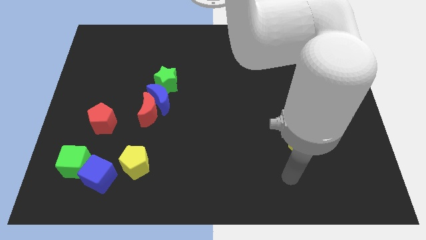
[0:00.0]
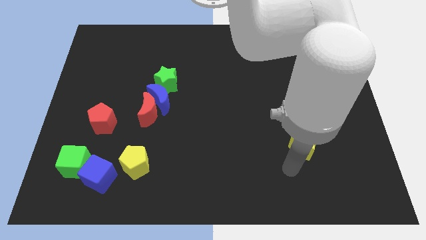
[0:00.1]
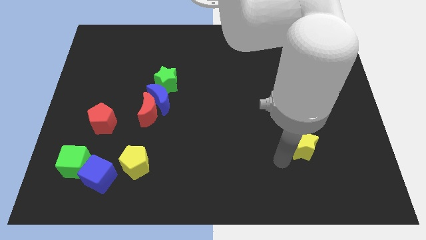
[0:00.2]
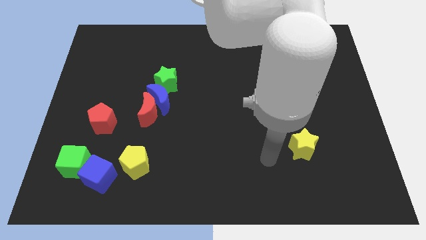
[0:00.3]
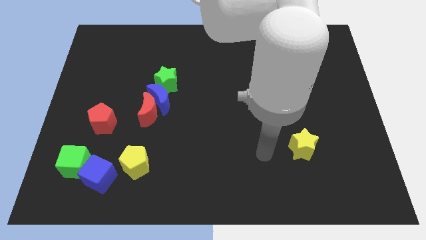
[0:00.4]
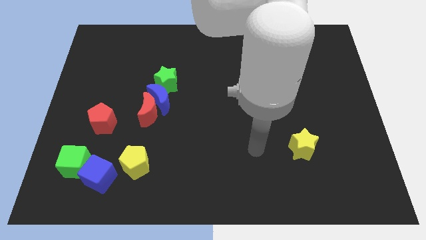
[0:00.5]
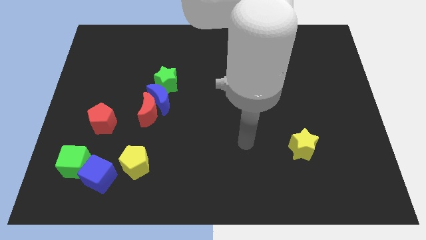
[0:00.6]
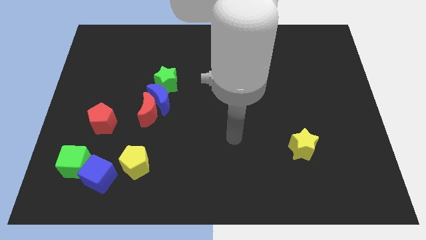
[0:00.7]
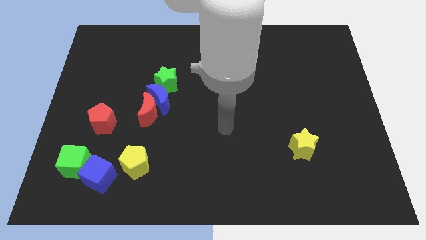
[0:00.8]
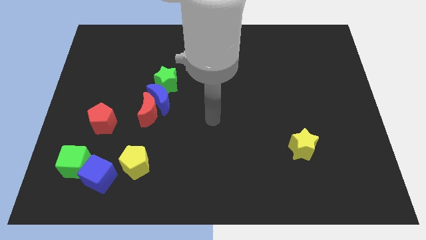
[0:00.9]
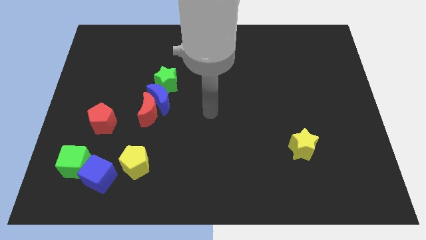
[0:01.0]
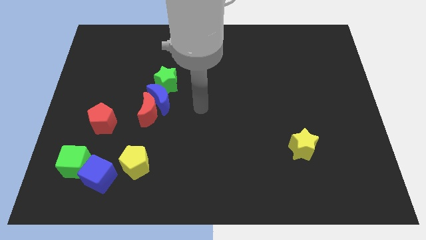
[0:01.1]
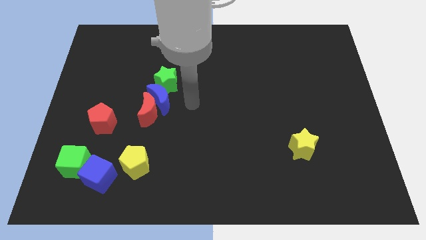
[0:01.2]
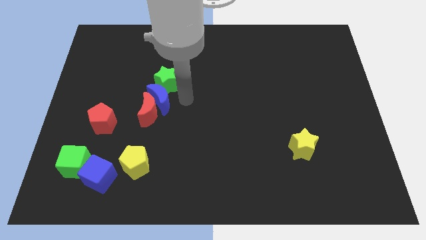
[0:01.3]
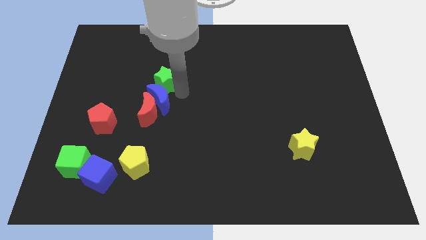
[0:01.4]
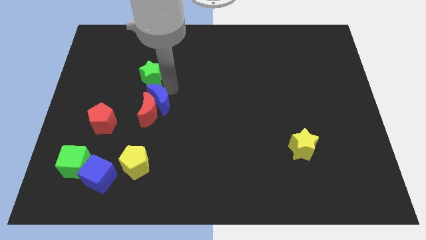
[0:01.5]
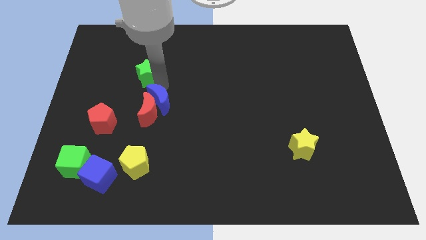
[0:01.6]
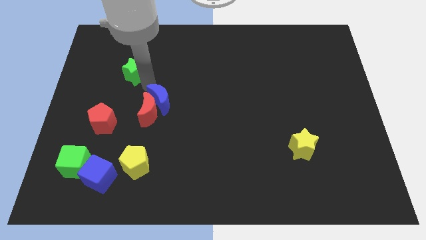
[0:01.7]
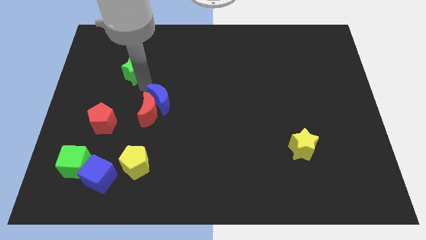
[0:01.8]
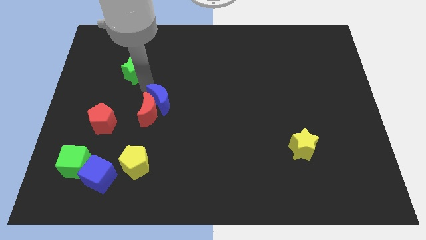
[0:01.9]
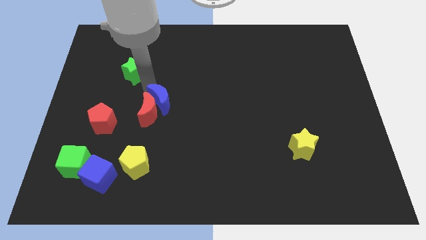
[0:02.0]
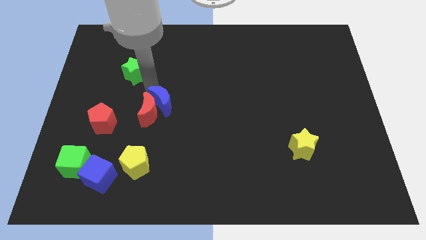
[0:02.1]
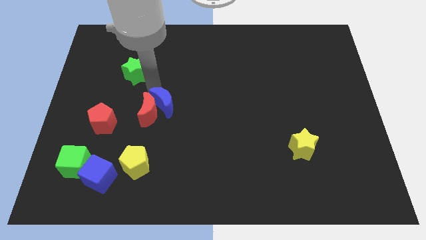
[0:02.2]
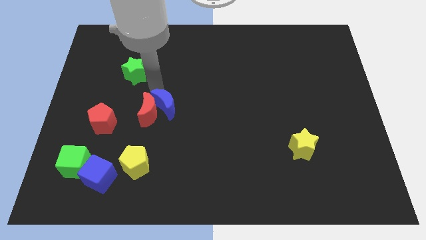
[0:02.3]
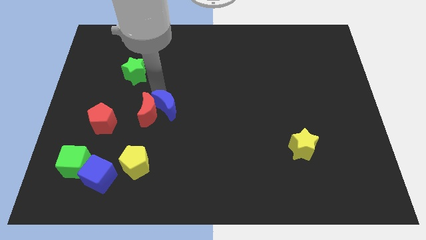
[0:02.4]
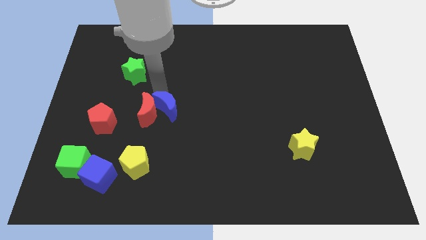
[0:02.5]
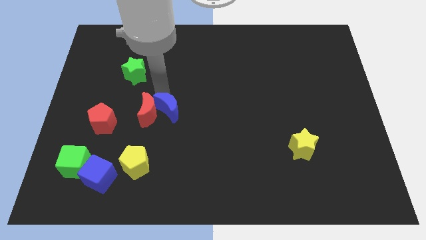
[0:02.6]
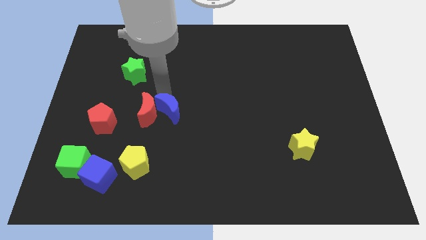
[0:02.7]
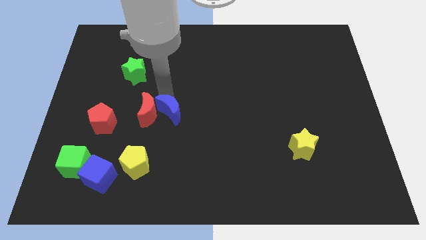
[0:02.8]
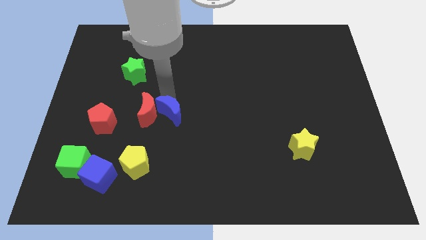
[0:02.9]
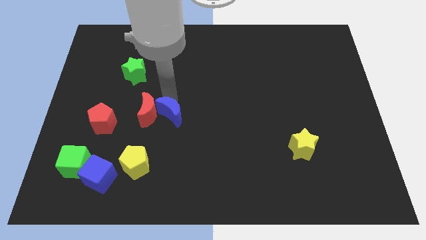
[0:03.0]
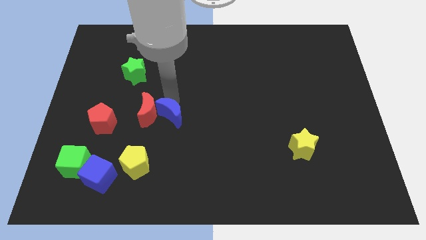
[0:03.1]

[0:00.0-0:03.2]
pull the blue moon apart from the red moon and green star

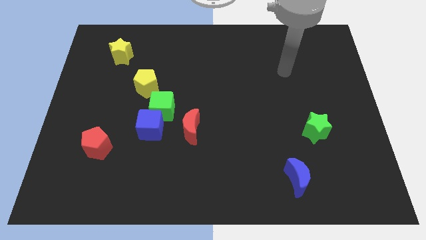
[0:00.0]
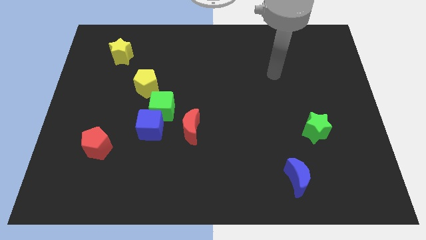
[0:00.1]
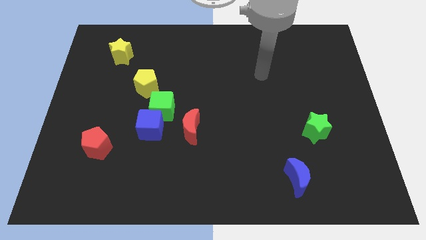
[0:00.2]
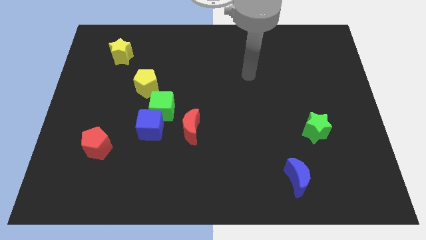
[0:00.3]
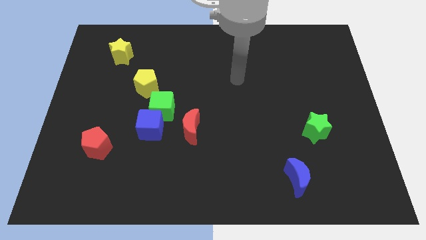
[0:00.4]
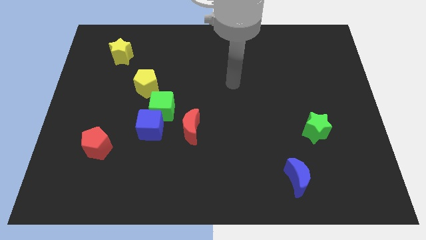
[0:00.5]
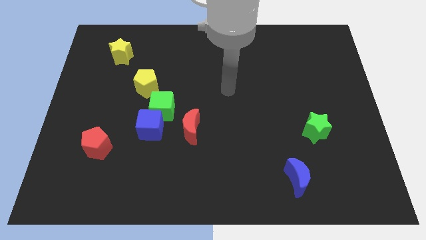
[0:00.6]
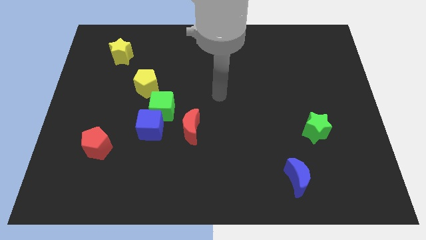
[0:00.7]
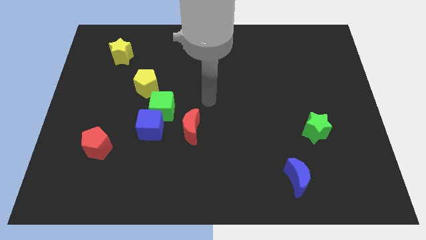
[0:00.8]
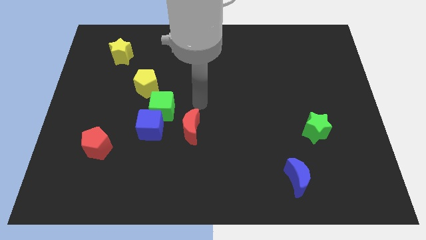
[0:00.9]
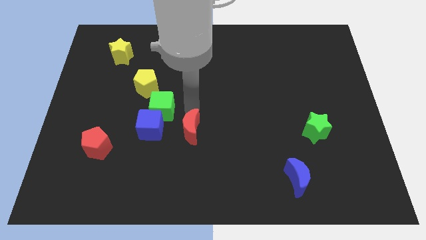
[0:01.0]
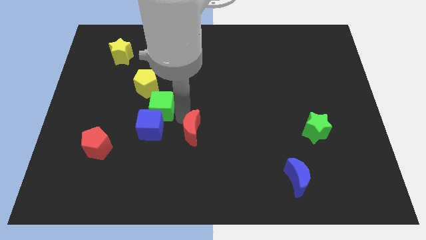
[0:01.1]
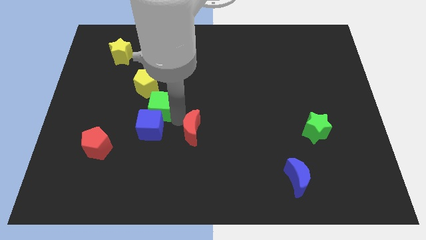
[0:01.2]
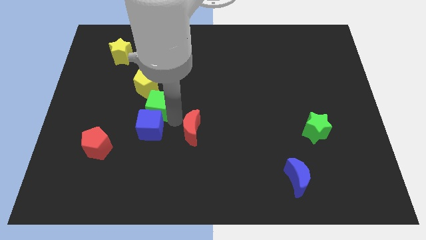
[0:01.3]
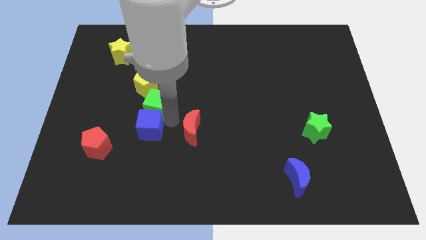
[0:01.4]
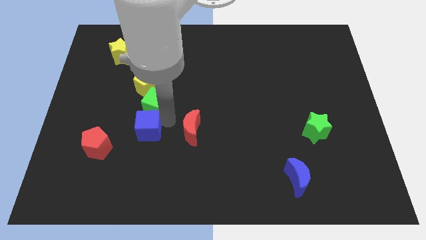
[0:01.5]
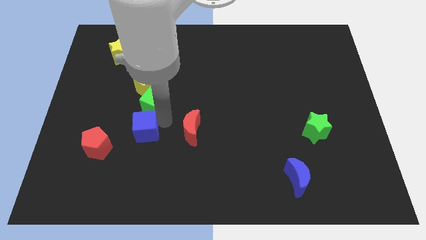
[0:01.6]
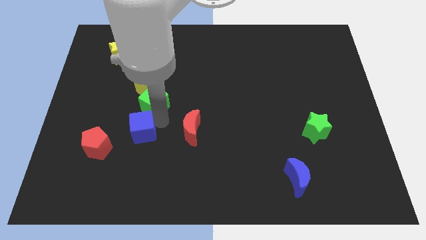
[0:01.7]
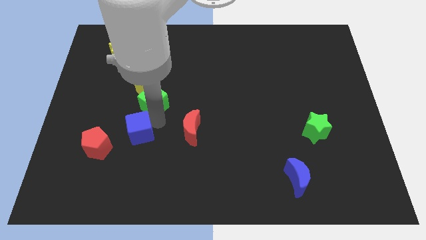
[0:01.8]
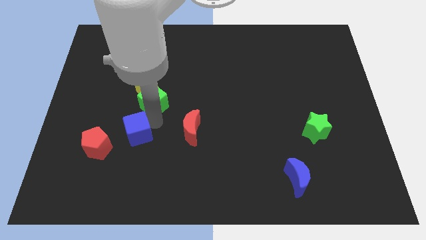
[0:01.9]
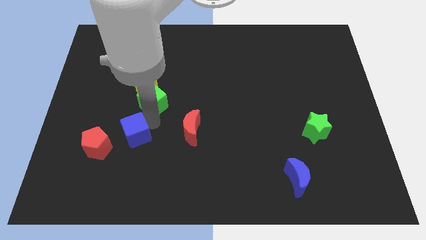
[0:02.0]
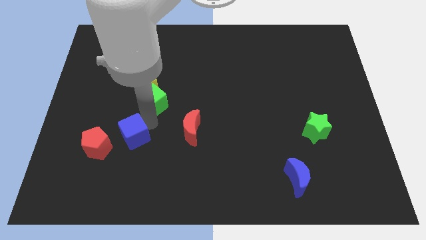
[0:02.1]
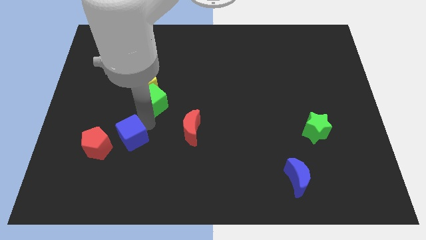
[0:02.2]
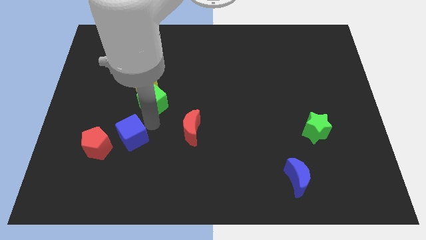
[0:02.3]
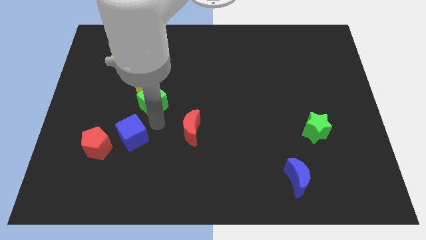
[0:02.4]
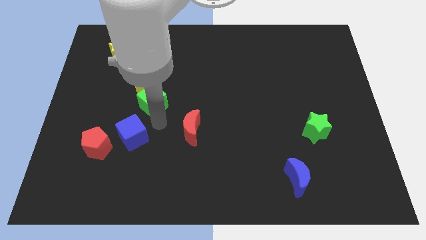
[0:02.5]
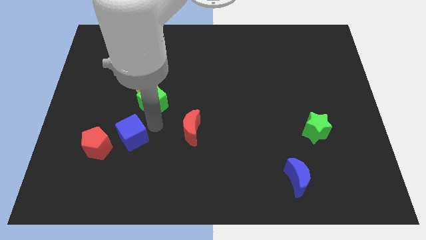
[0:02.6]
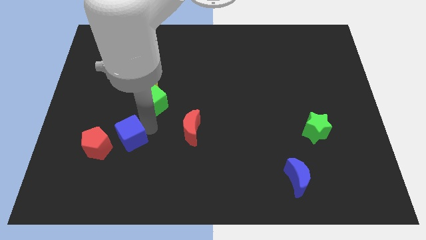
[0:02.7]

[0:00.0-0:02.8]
move the blue cube away from the green cube and red moon

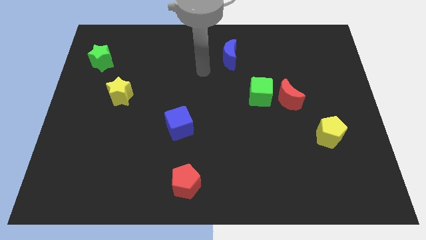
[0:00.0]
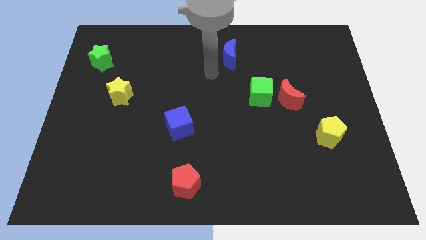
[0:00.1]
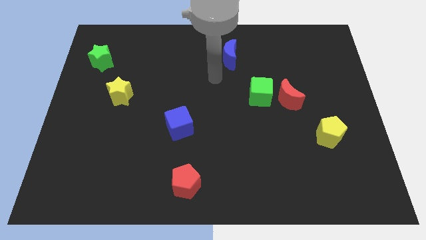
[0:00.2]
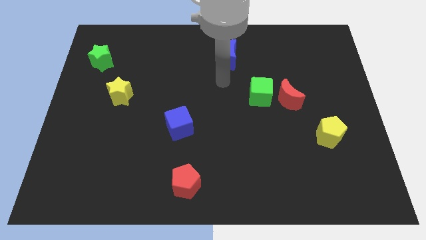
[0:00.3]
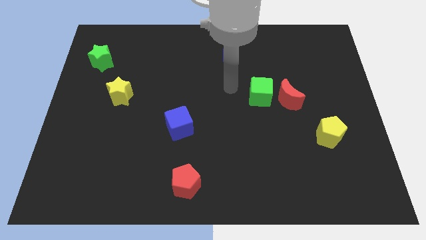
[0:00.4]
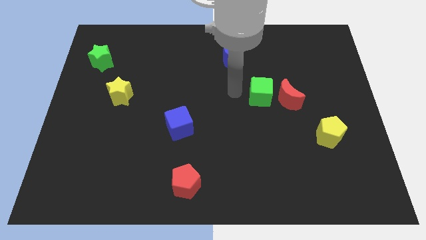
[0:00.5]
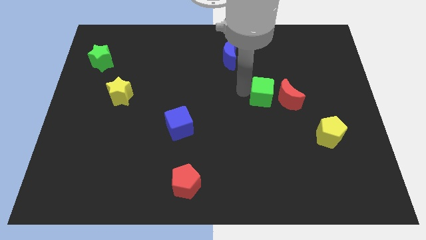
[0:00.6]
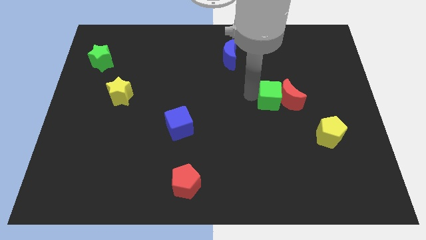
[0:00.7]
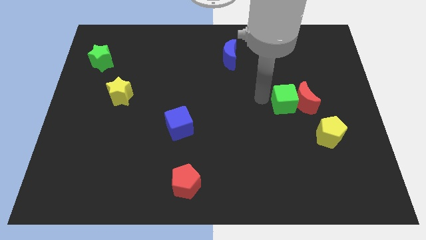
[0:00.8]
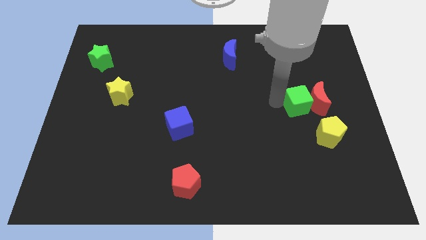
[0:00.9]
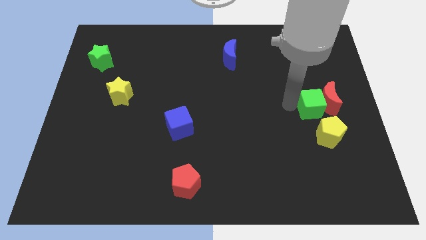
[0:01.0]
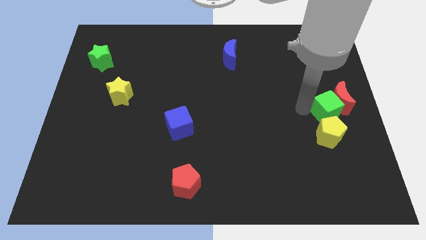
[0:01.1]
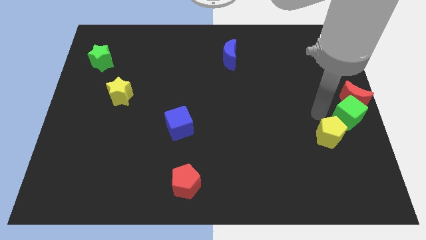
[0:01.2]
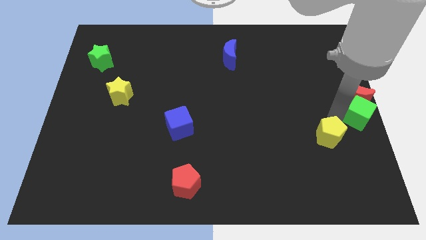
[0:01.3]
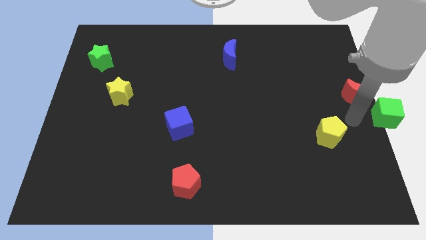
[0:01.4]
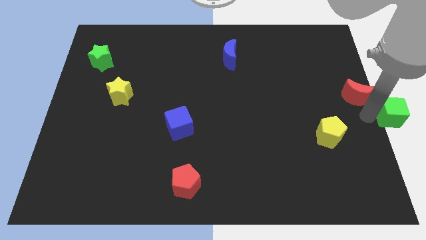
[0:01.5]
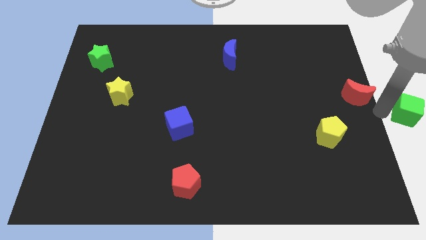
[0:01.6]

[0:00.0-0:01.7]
move the red moon away from the green cube

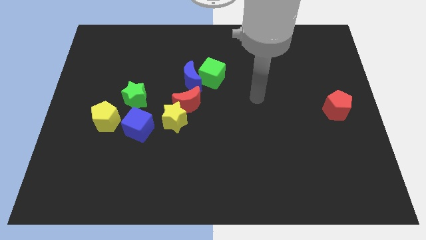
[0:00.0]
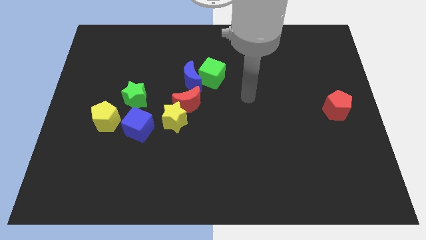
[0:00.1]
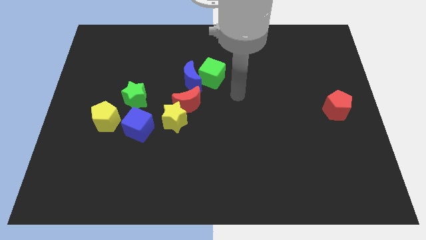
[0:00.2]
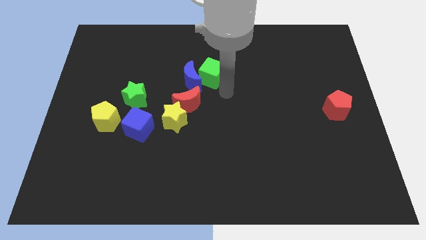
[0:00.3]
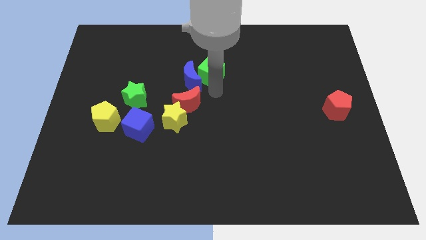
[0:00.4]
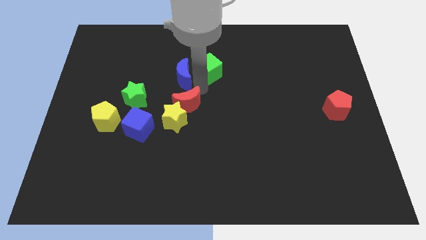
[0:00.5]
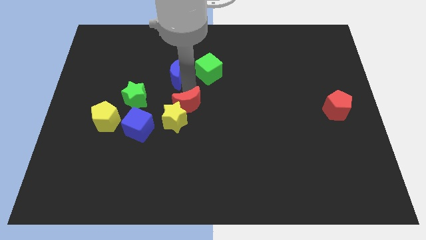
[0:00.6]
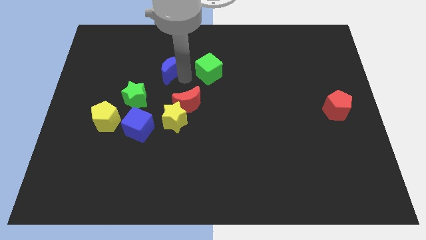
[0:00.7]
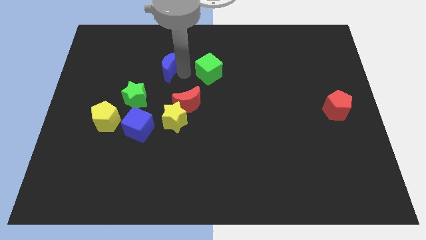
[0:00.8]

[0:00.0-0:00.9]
move the green cube away from the blue moon

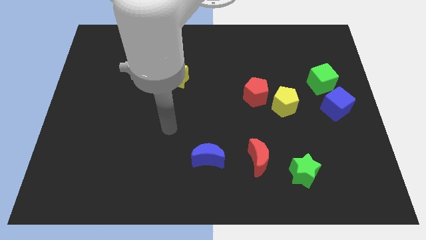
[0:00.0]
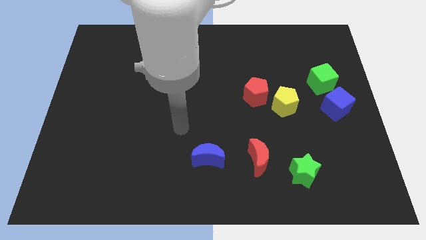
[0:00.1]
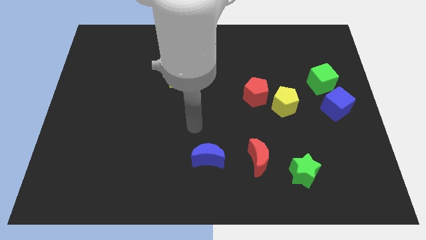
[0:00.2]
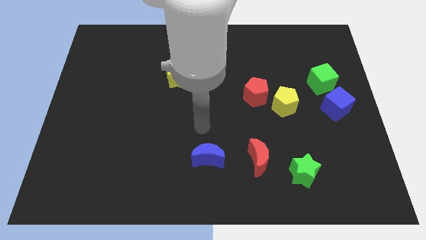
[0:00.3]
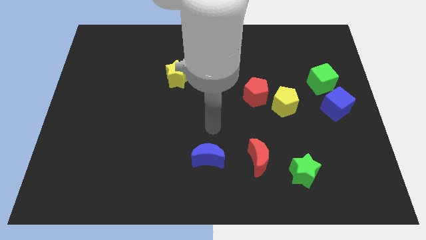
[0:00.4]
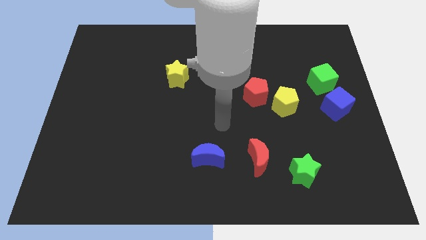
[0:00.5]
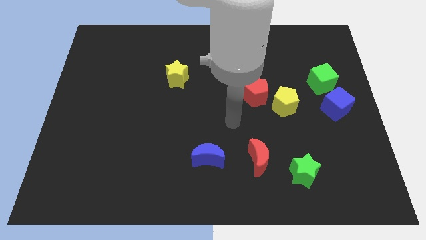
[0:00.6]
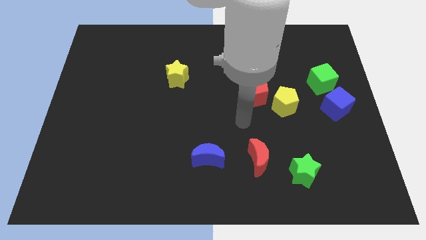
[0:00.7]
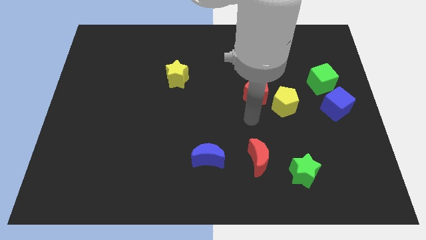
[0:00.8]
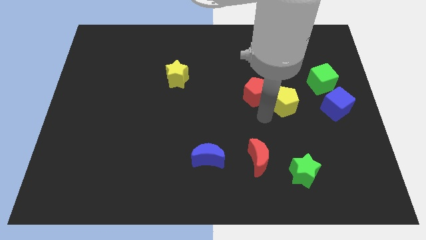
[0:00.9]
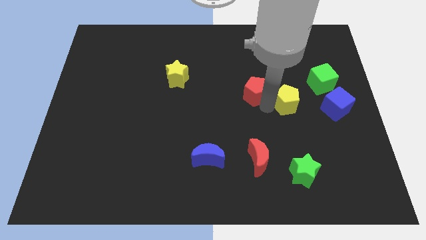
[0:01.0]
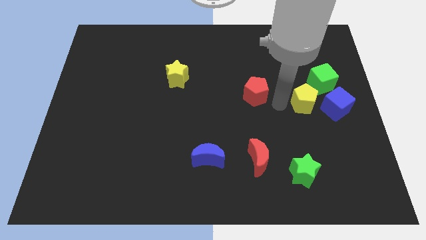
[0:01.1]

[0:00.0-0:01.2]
pull the red pentagon apart from the yellow pentagon
